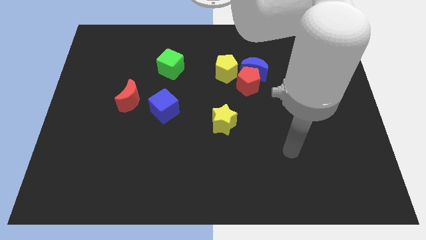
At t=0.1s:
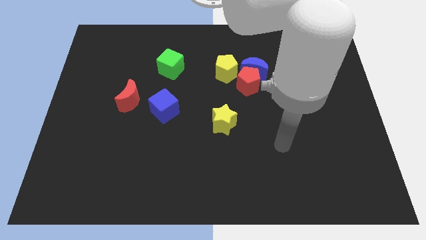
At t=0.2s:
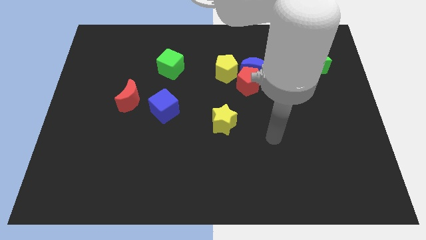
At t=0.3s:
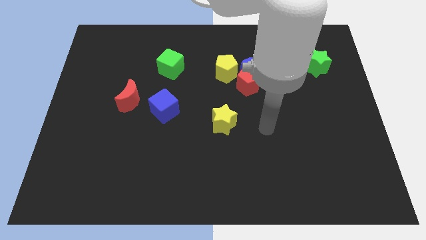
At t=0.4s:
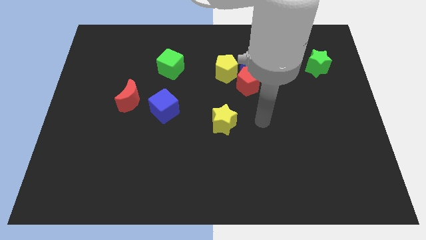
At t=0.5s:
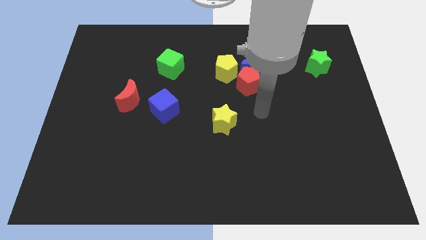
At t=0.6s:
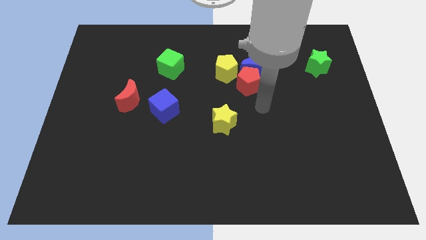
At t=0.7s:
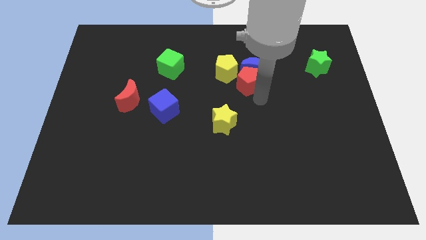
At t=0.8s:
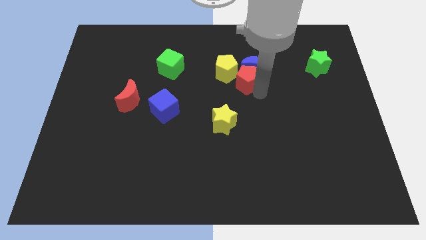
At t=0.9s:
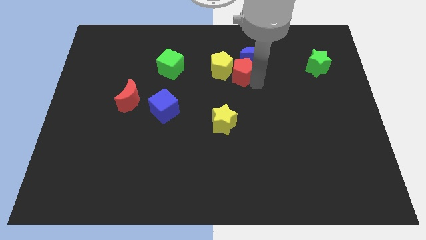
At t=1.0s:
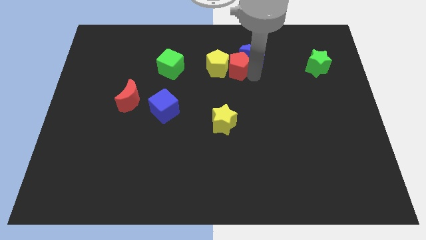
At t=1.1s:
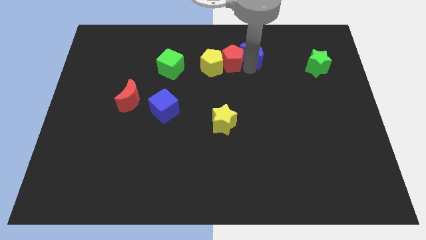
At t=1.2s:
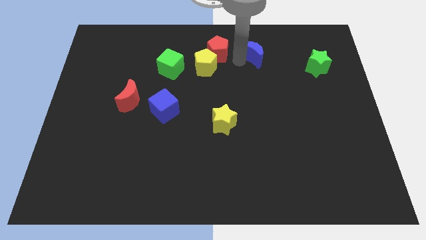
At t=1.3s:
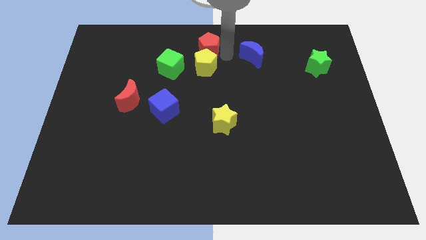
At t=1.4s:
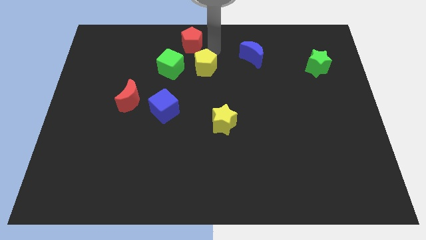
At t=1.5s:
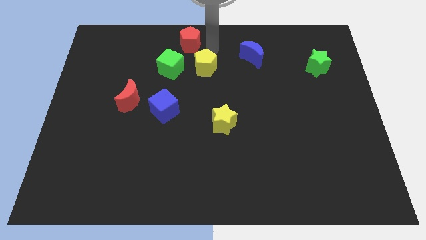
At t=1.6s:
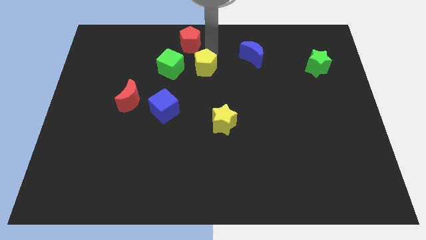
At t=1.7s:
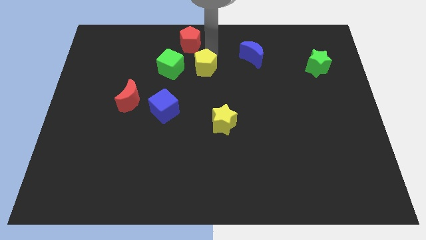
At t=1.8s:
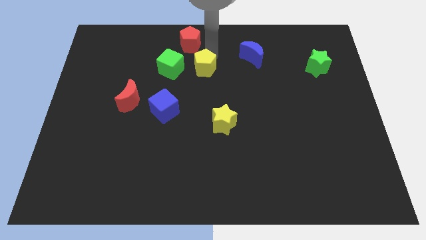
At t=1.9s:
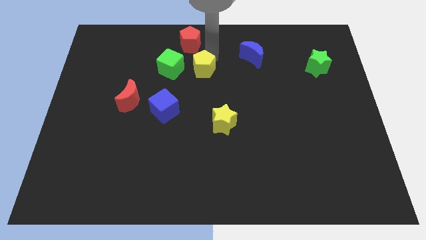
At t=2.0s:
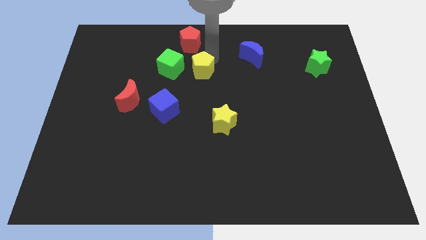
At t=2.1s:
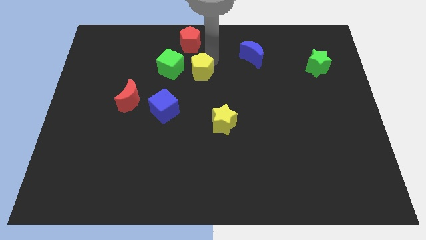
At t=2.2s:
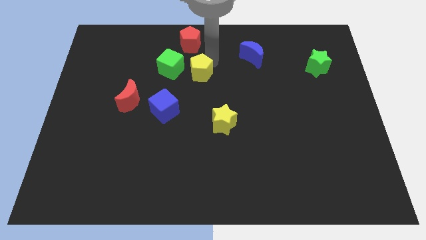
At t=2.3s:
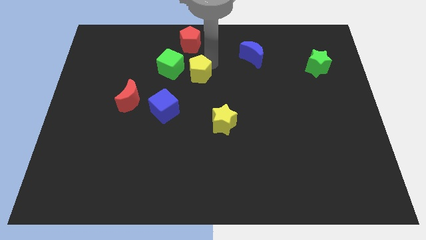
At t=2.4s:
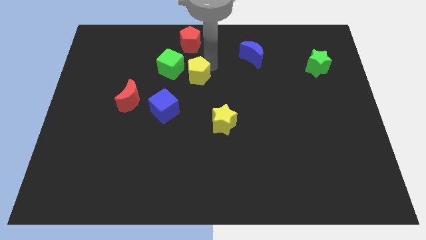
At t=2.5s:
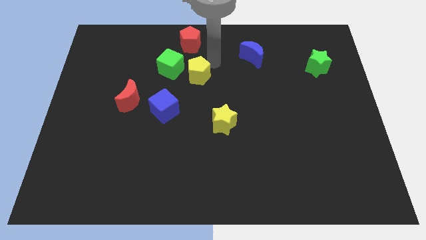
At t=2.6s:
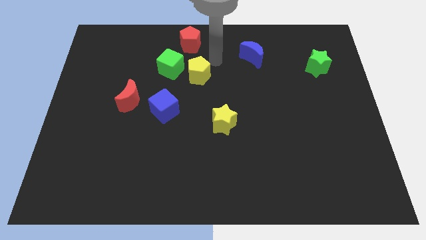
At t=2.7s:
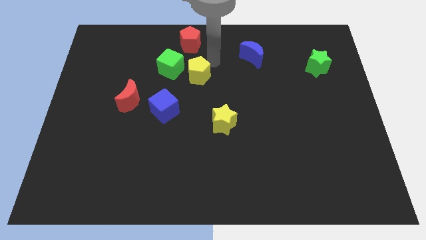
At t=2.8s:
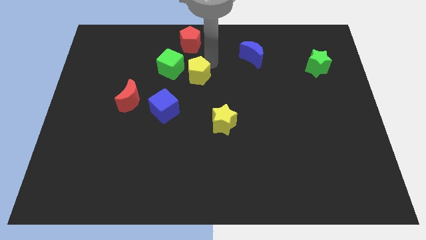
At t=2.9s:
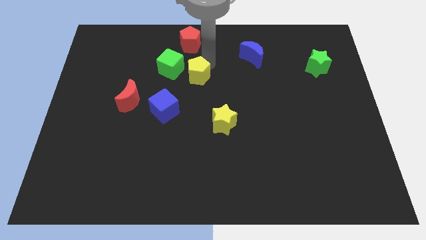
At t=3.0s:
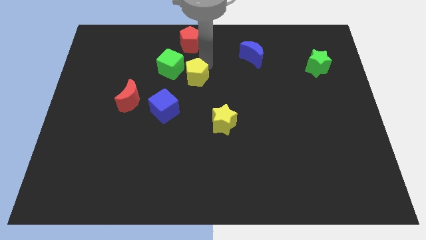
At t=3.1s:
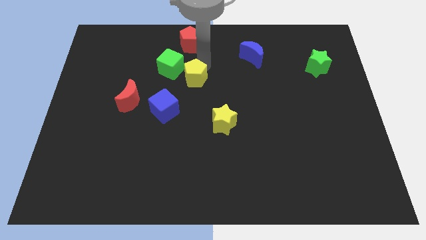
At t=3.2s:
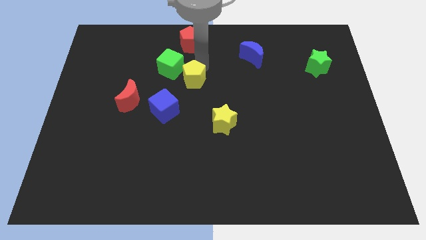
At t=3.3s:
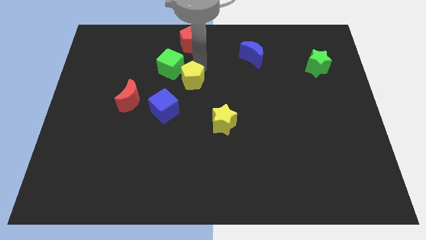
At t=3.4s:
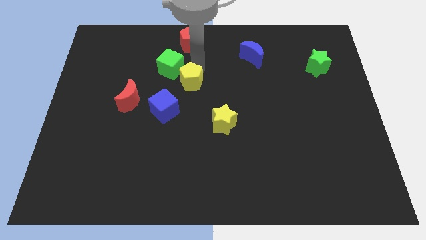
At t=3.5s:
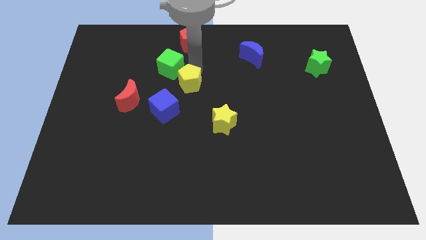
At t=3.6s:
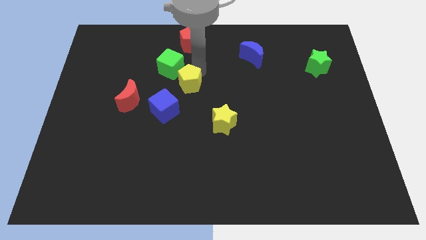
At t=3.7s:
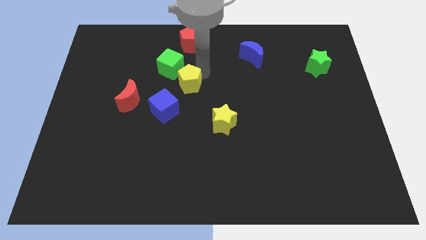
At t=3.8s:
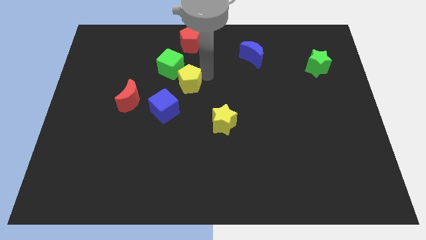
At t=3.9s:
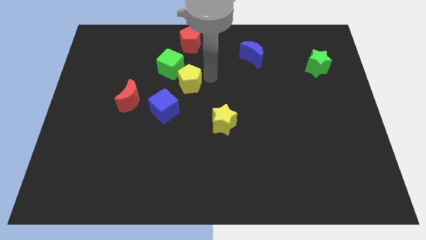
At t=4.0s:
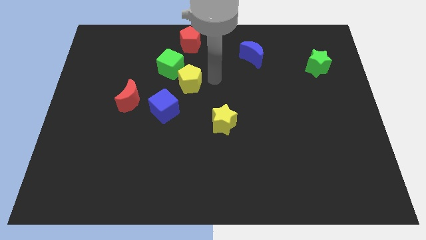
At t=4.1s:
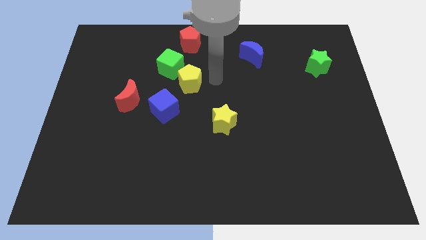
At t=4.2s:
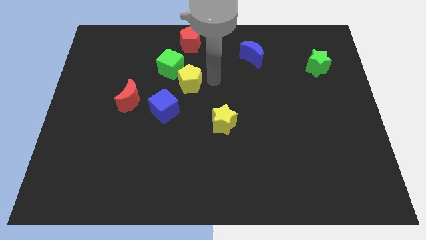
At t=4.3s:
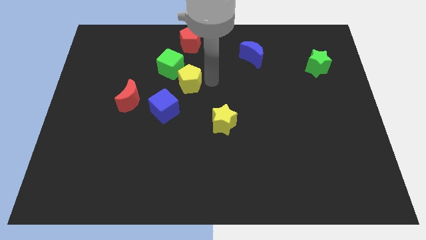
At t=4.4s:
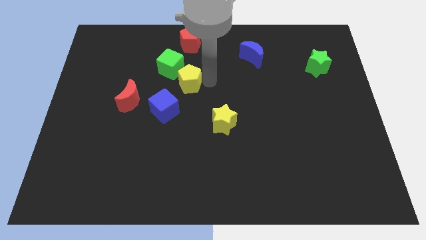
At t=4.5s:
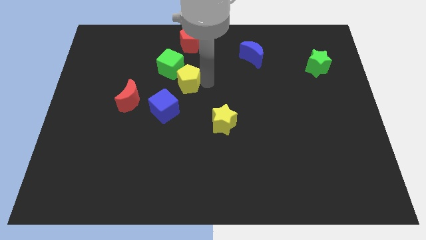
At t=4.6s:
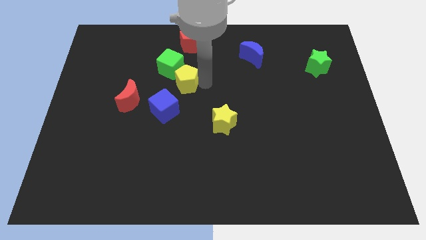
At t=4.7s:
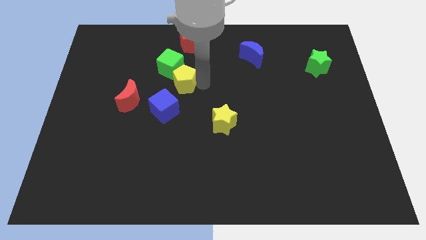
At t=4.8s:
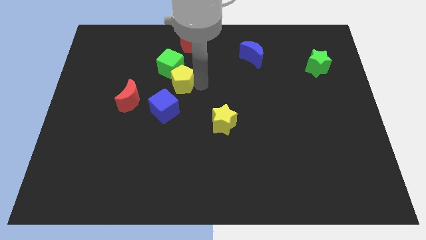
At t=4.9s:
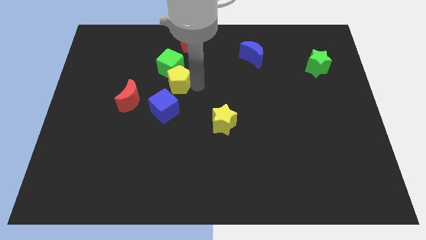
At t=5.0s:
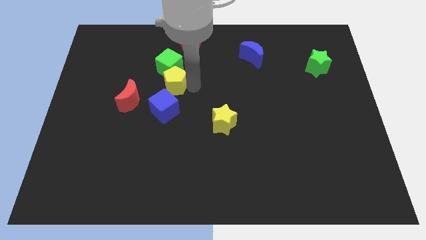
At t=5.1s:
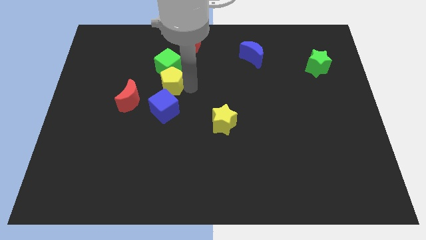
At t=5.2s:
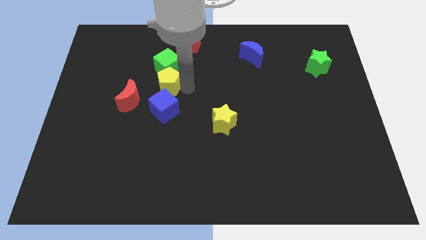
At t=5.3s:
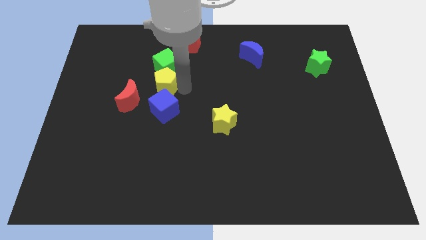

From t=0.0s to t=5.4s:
put the yellow pentagon to the top left side of the blue cube

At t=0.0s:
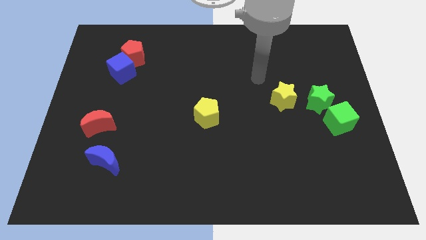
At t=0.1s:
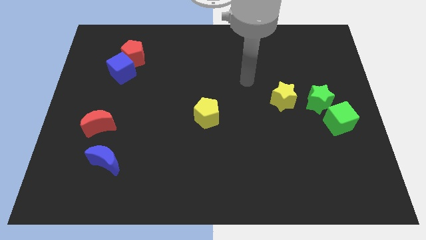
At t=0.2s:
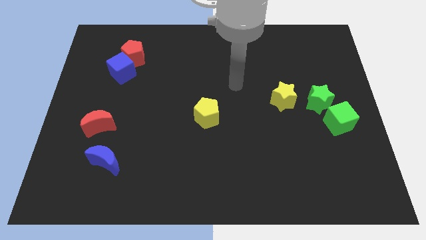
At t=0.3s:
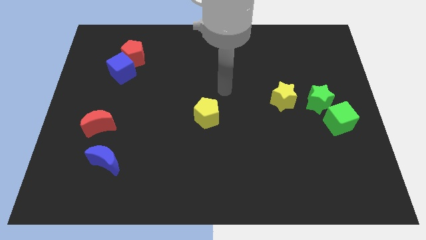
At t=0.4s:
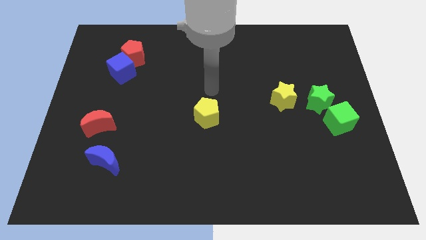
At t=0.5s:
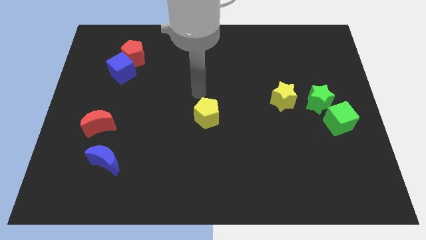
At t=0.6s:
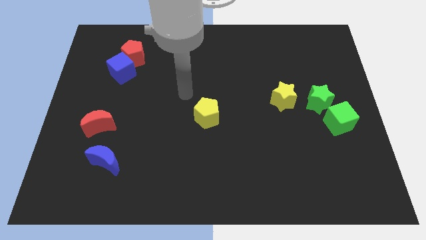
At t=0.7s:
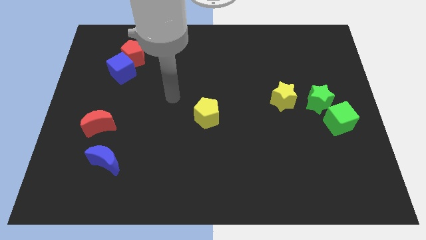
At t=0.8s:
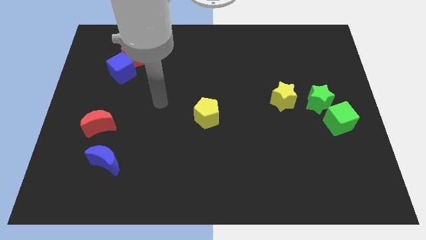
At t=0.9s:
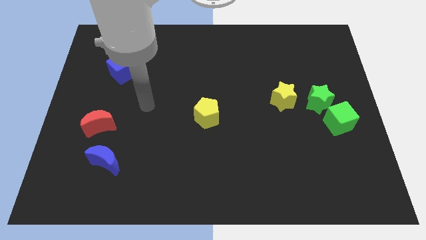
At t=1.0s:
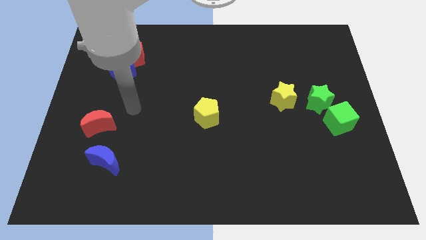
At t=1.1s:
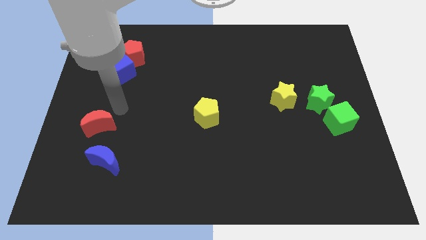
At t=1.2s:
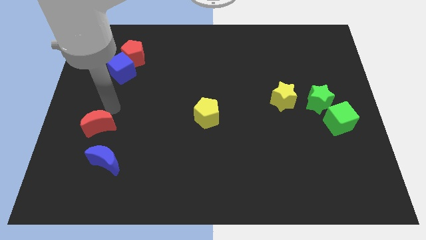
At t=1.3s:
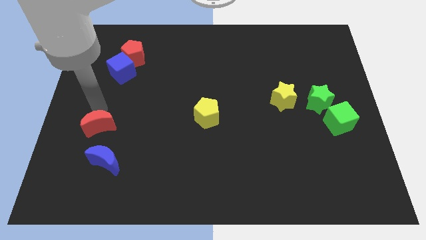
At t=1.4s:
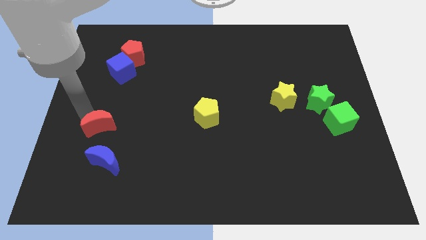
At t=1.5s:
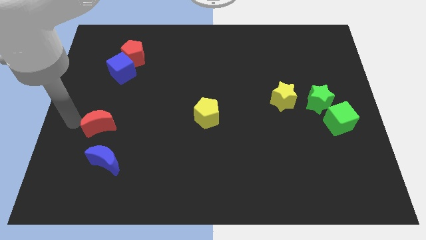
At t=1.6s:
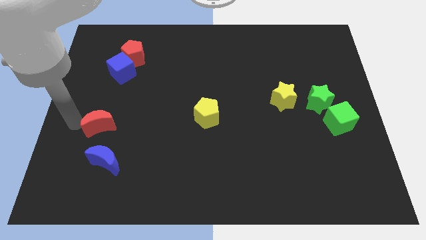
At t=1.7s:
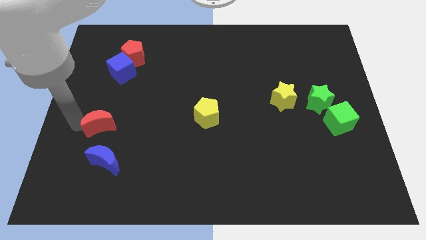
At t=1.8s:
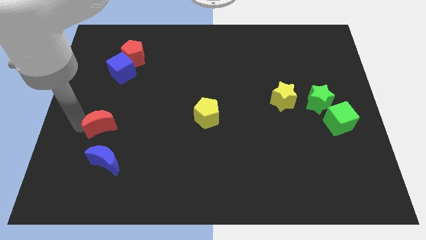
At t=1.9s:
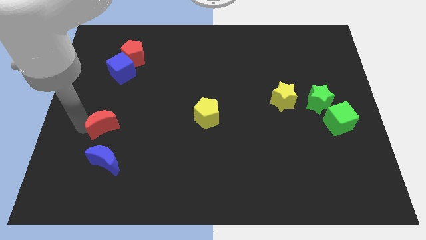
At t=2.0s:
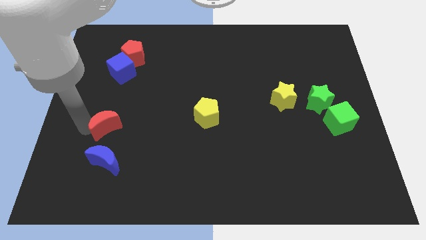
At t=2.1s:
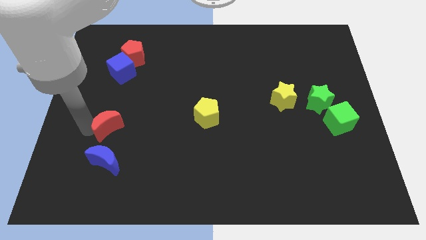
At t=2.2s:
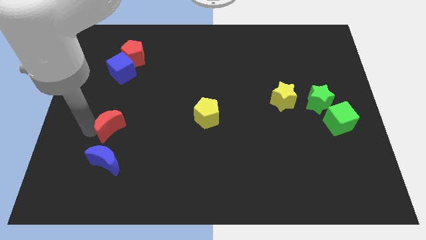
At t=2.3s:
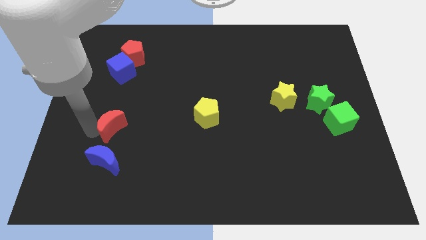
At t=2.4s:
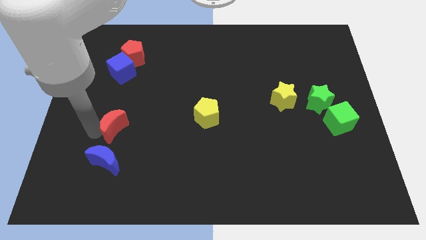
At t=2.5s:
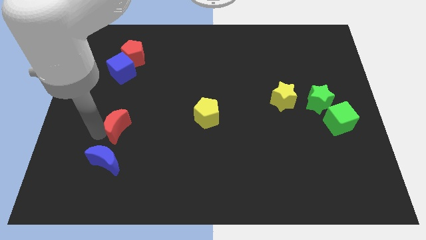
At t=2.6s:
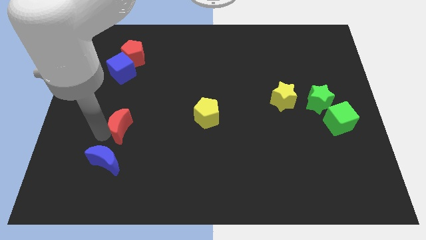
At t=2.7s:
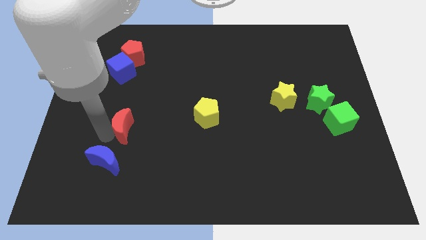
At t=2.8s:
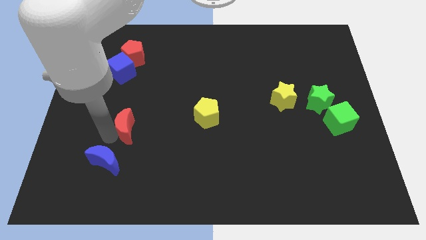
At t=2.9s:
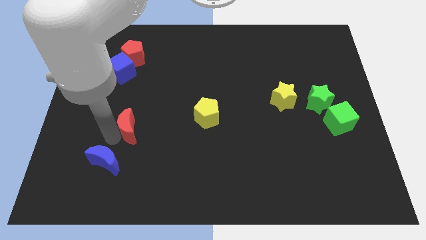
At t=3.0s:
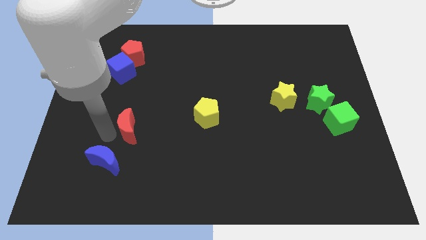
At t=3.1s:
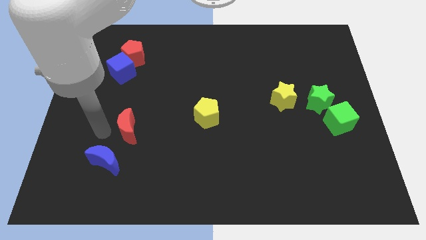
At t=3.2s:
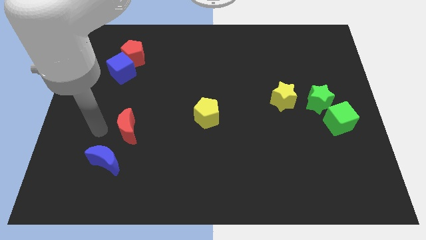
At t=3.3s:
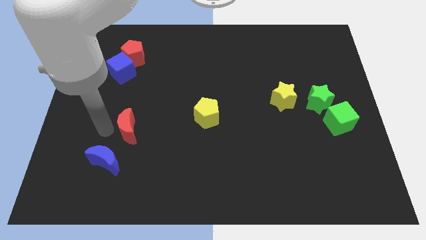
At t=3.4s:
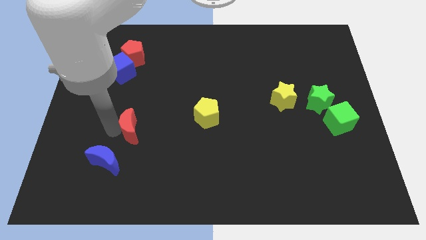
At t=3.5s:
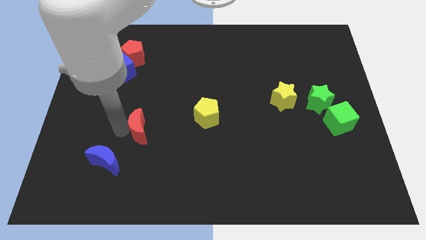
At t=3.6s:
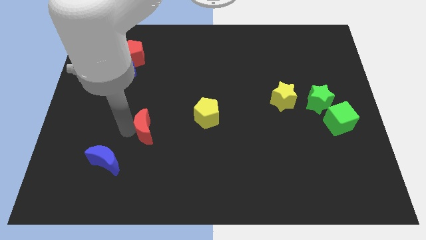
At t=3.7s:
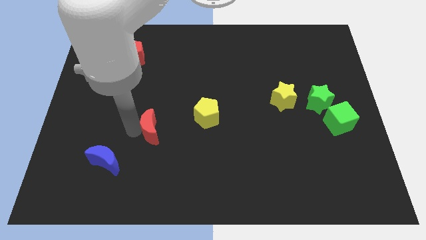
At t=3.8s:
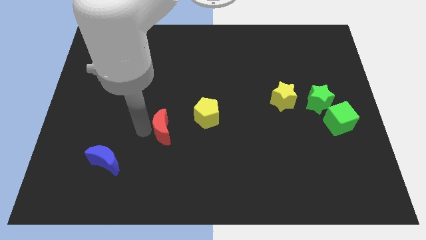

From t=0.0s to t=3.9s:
put the red moon to the bottom left side of the yellow pentagon
